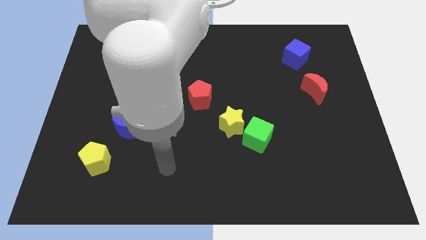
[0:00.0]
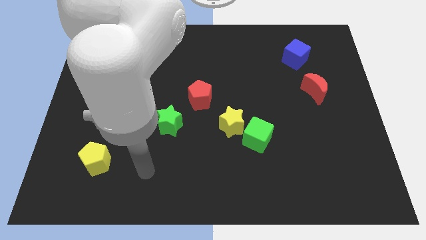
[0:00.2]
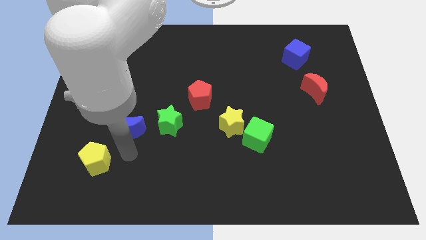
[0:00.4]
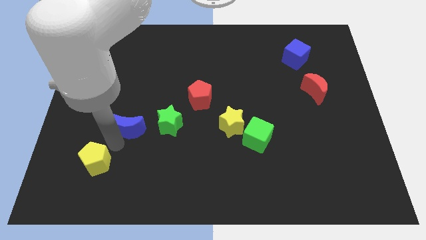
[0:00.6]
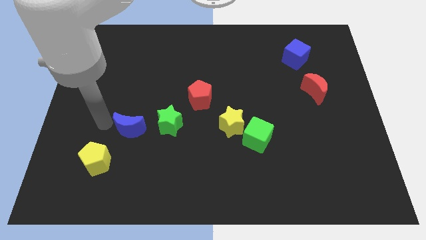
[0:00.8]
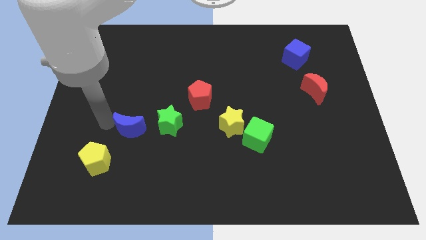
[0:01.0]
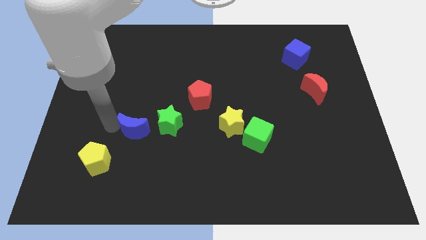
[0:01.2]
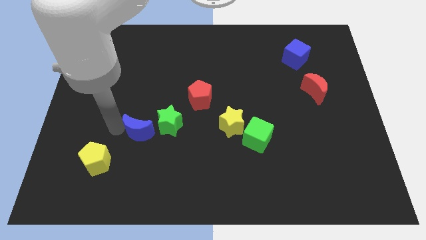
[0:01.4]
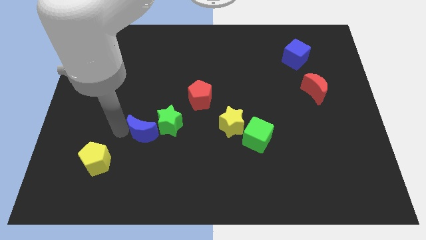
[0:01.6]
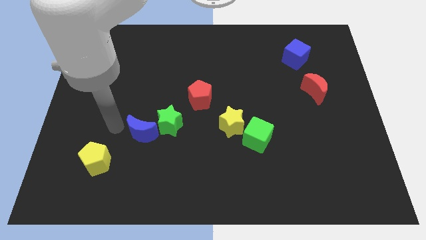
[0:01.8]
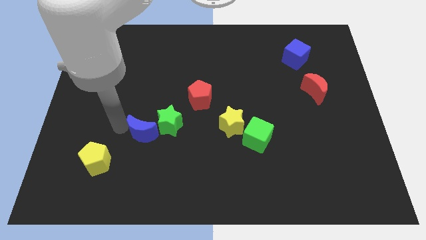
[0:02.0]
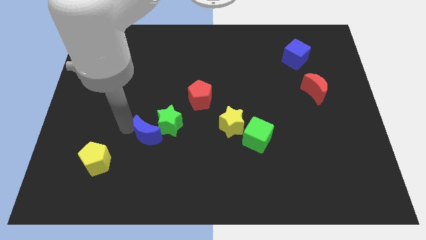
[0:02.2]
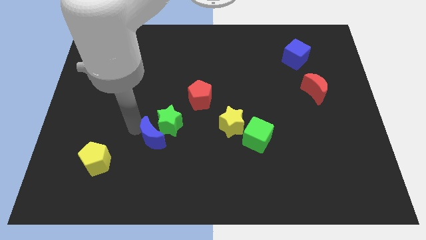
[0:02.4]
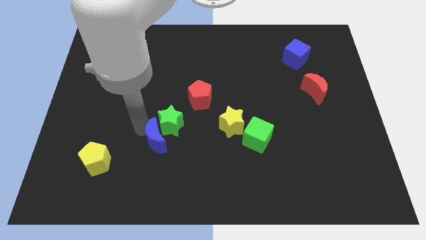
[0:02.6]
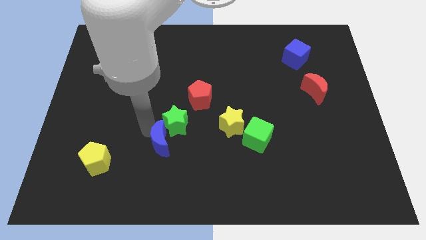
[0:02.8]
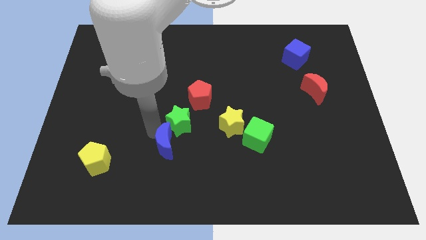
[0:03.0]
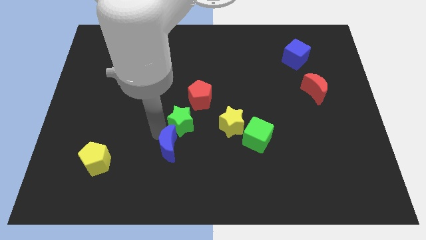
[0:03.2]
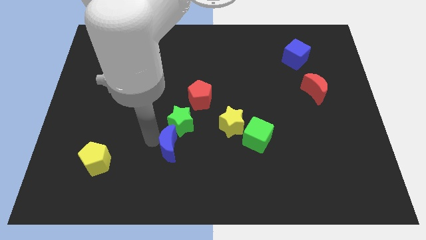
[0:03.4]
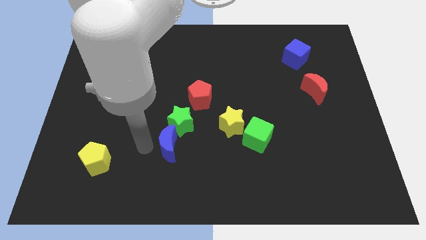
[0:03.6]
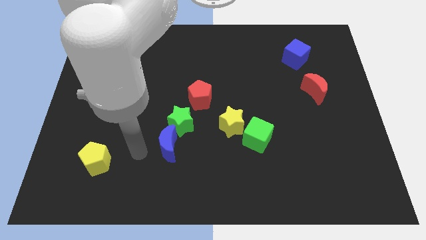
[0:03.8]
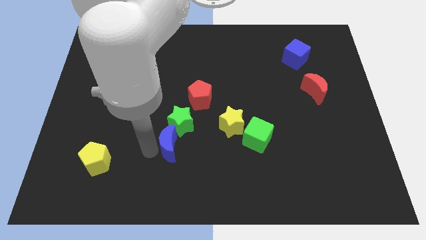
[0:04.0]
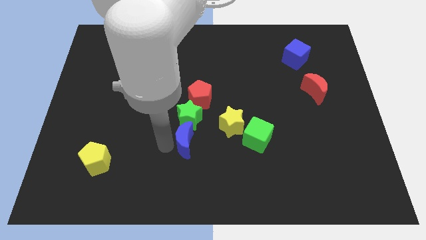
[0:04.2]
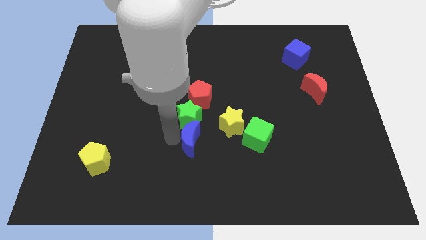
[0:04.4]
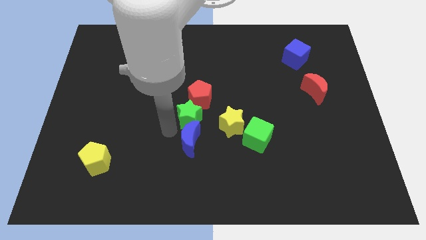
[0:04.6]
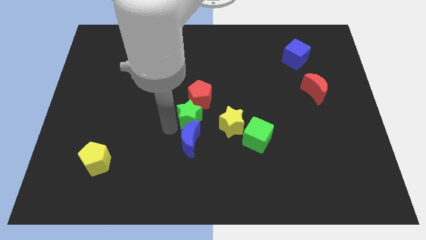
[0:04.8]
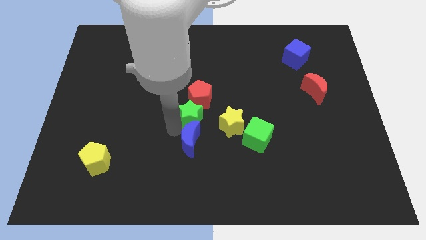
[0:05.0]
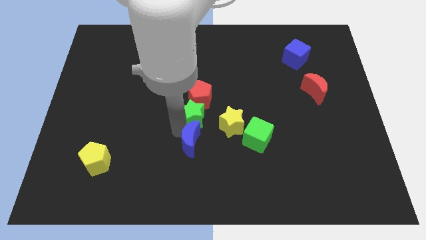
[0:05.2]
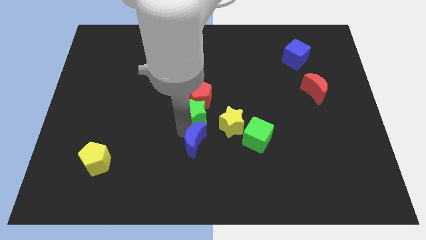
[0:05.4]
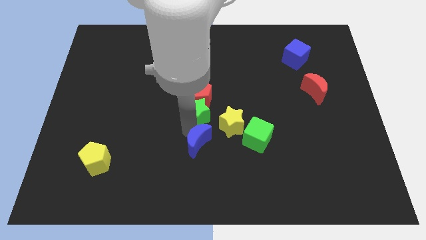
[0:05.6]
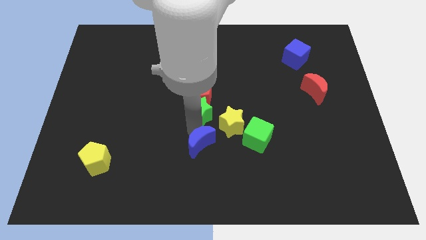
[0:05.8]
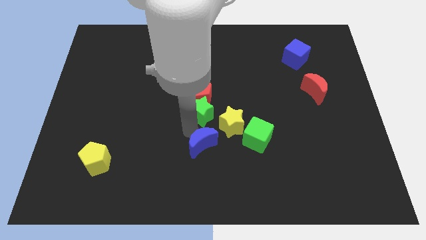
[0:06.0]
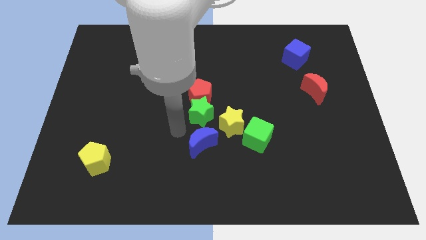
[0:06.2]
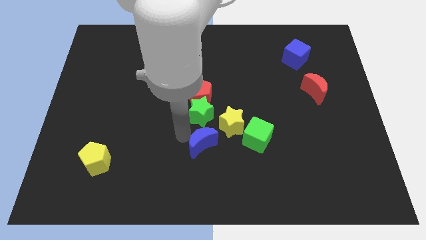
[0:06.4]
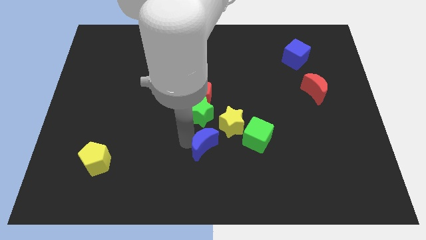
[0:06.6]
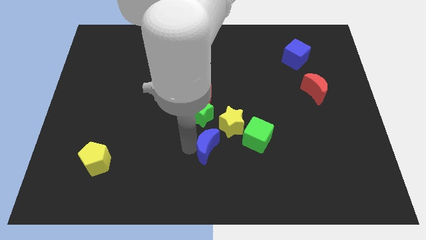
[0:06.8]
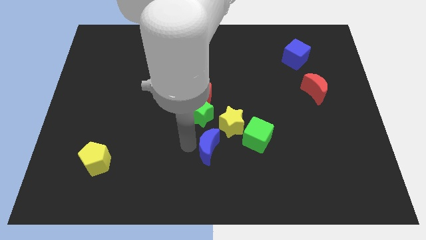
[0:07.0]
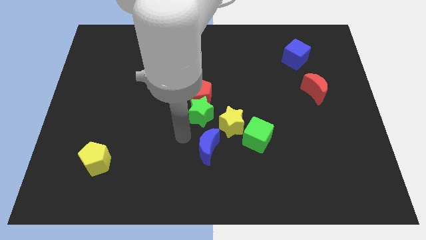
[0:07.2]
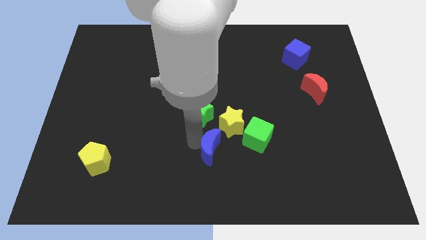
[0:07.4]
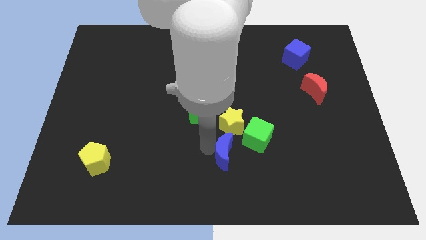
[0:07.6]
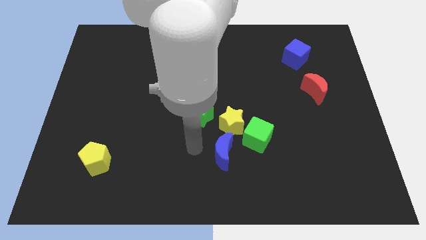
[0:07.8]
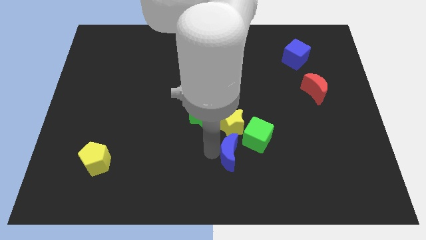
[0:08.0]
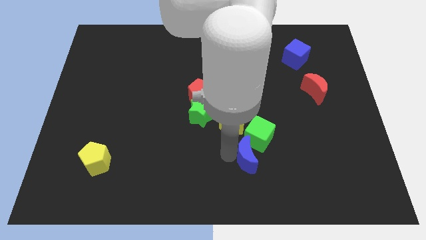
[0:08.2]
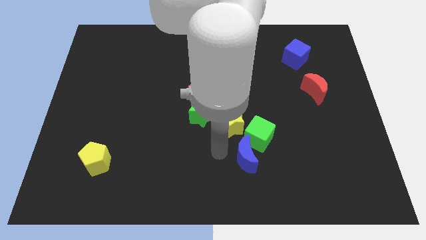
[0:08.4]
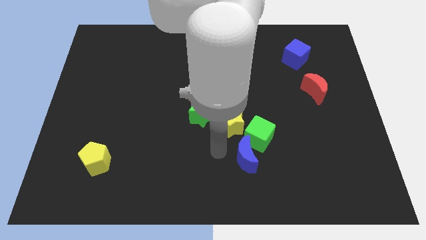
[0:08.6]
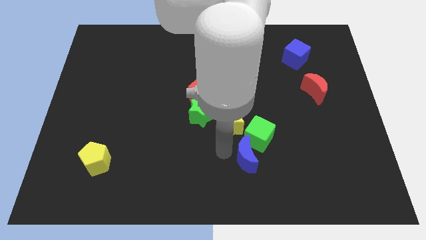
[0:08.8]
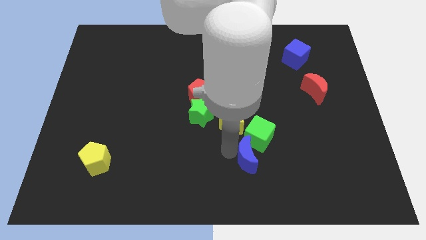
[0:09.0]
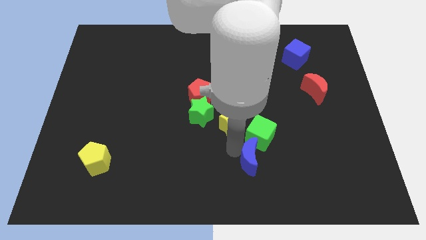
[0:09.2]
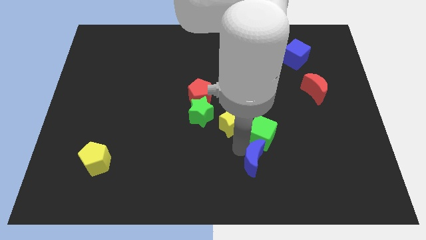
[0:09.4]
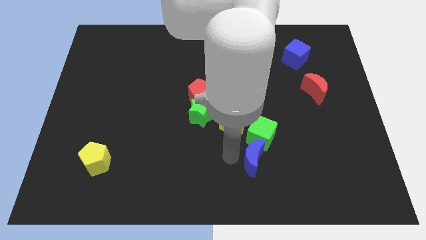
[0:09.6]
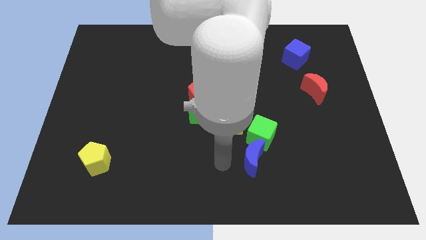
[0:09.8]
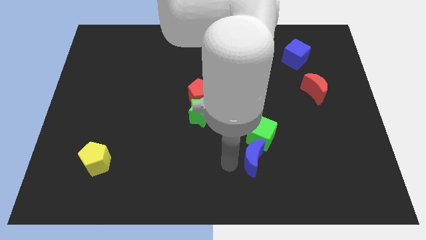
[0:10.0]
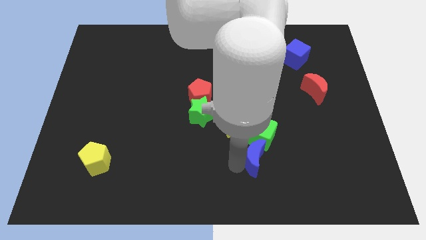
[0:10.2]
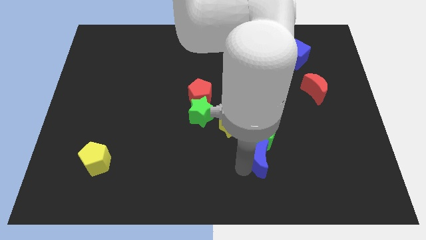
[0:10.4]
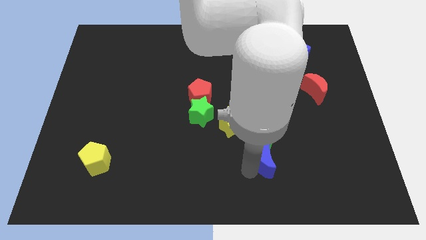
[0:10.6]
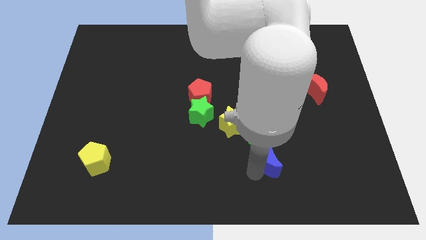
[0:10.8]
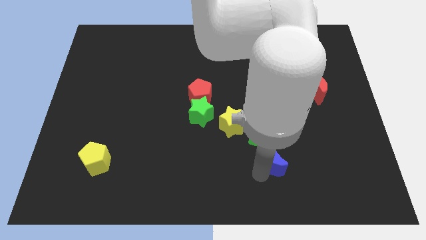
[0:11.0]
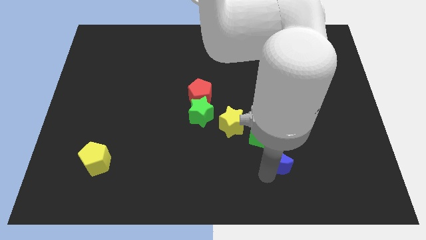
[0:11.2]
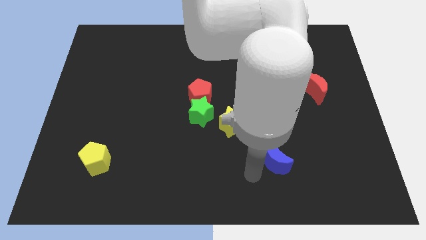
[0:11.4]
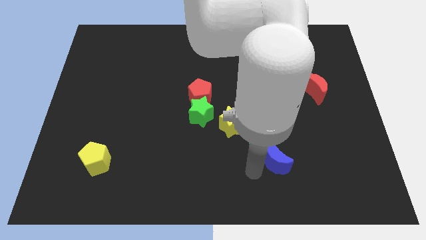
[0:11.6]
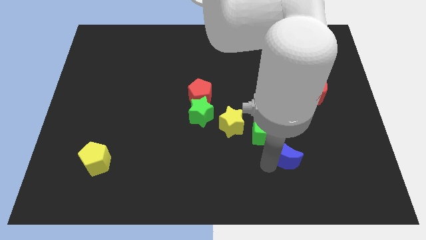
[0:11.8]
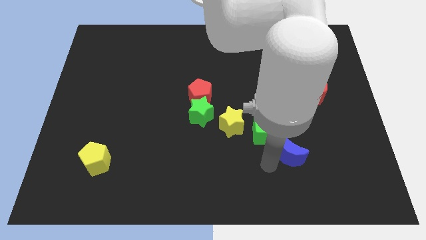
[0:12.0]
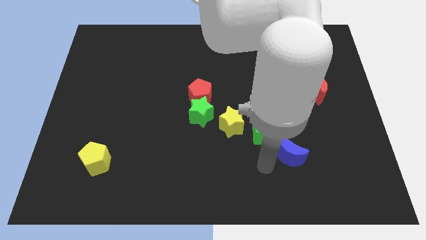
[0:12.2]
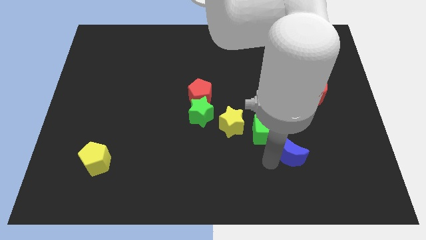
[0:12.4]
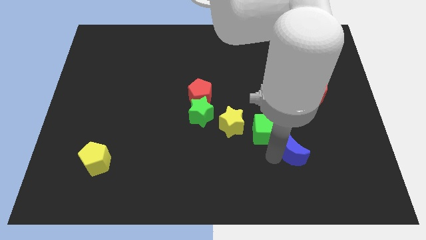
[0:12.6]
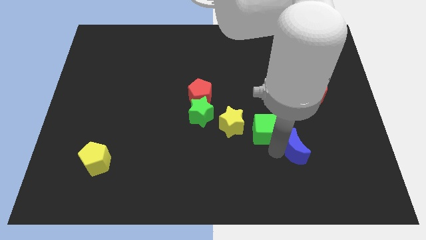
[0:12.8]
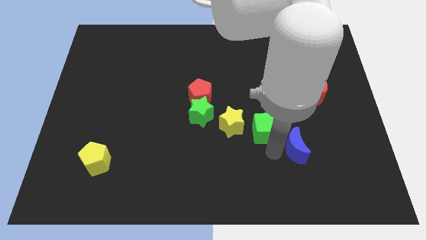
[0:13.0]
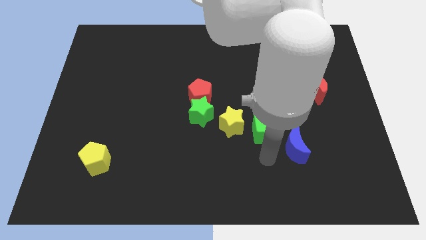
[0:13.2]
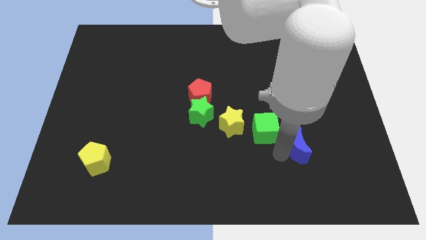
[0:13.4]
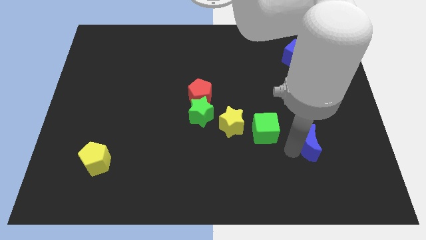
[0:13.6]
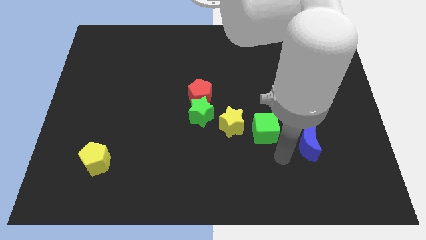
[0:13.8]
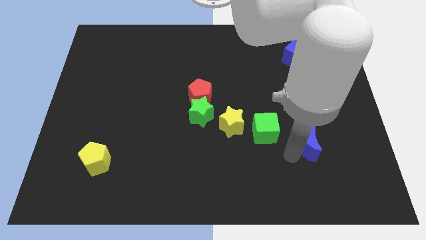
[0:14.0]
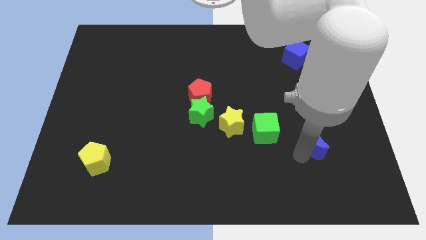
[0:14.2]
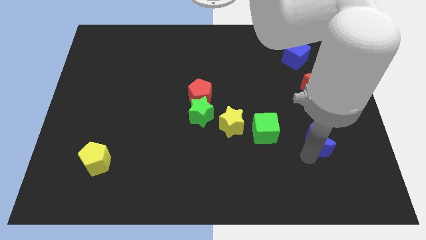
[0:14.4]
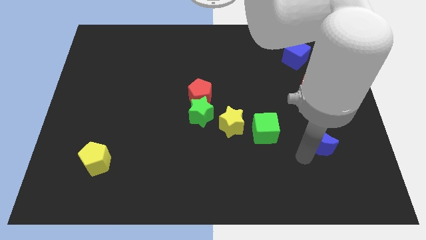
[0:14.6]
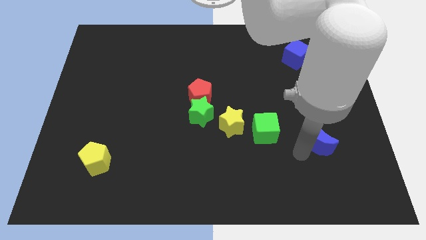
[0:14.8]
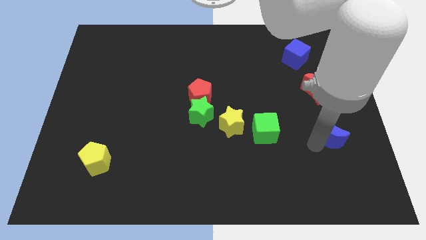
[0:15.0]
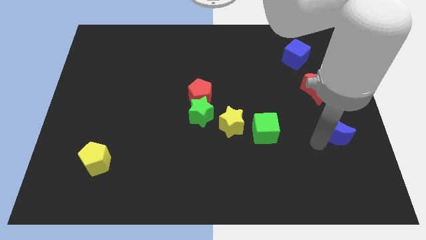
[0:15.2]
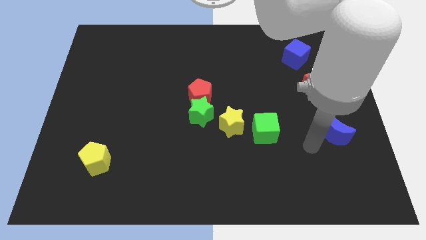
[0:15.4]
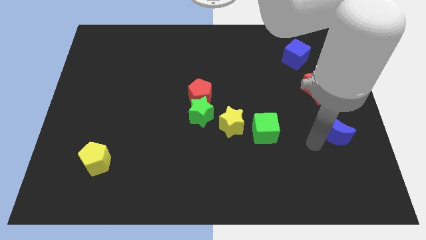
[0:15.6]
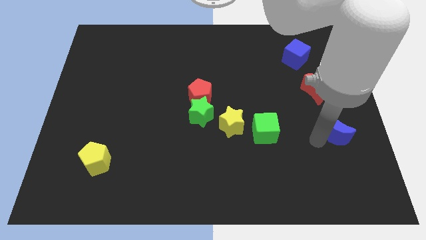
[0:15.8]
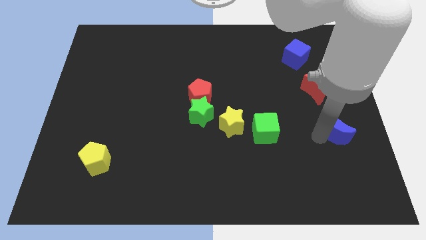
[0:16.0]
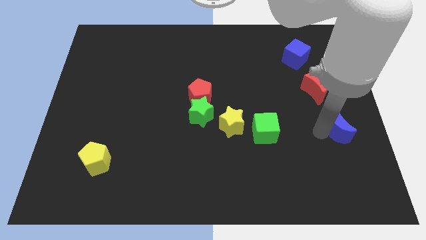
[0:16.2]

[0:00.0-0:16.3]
put the blue moon to the right side
